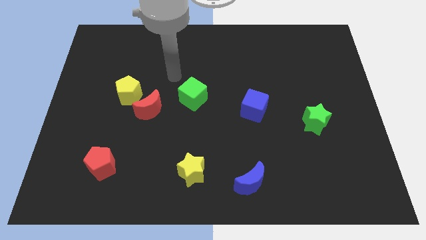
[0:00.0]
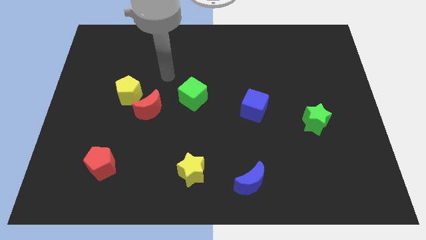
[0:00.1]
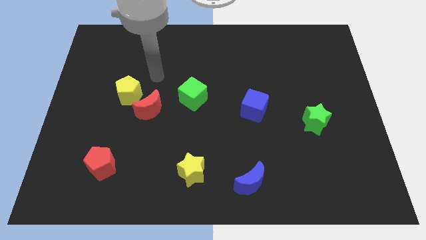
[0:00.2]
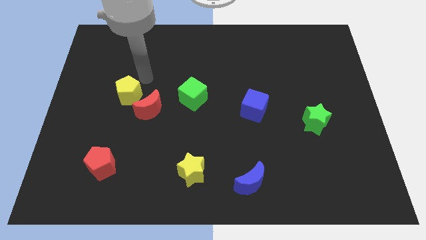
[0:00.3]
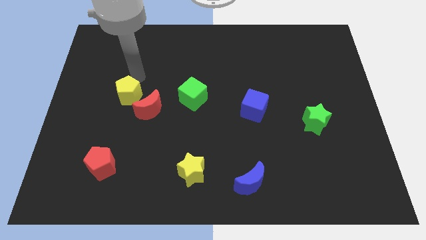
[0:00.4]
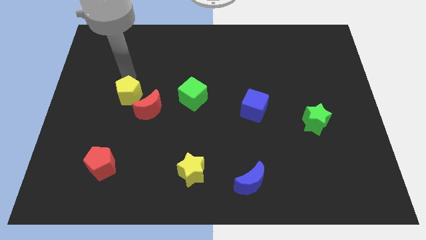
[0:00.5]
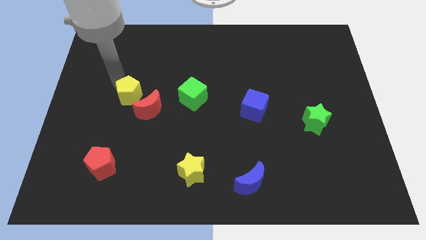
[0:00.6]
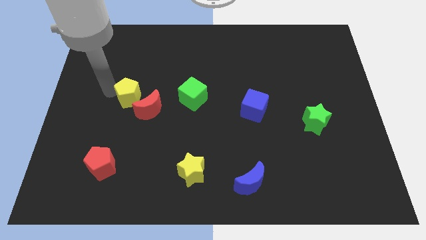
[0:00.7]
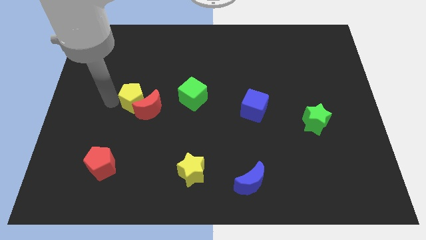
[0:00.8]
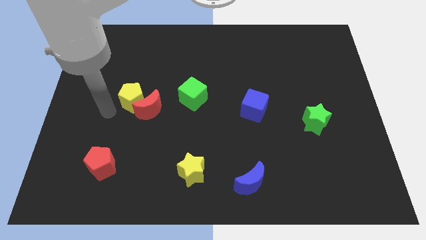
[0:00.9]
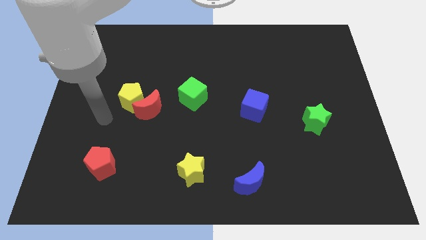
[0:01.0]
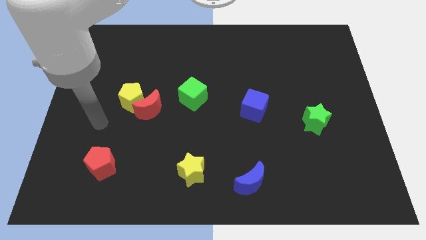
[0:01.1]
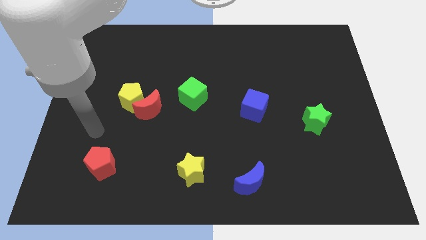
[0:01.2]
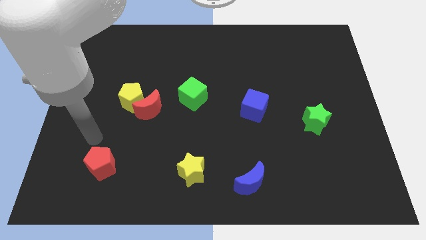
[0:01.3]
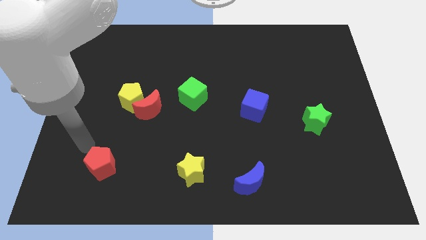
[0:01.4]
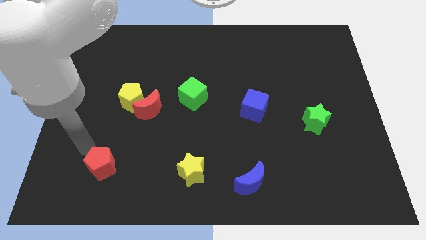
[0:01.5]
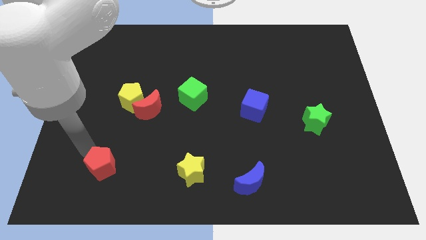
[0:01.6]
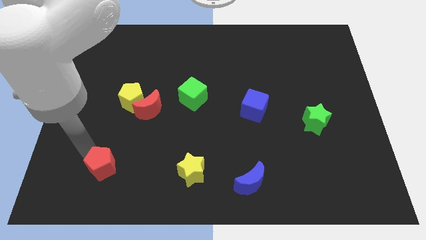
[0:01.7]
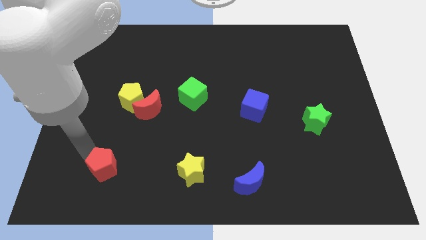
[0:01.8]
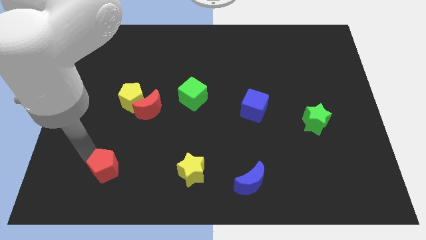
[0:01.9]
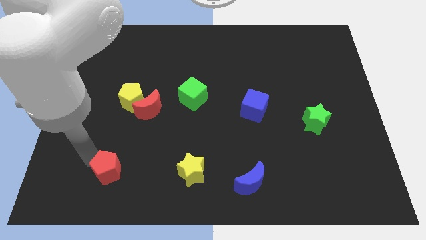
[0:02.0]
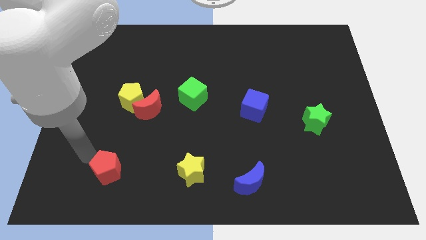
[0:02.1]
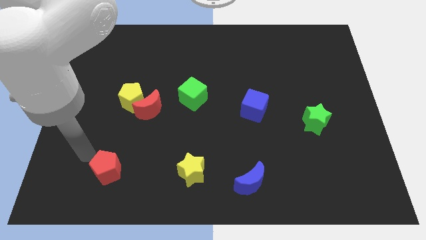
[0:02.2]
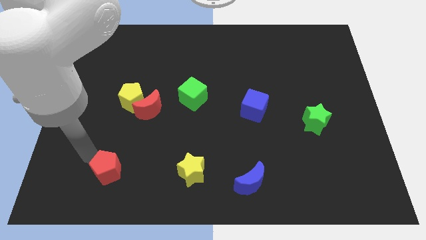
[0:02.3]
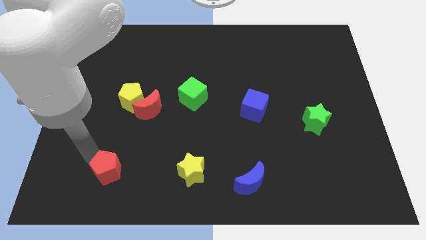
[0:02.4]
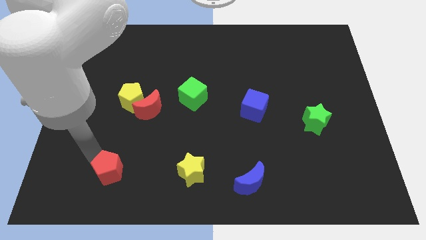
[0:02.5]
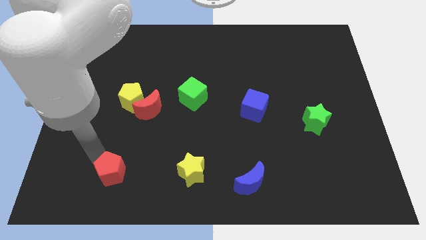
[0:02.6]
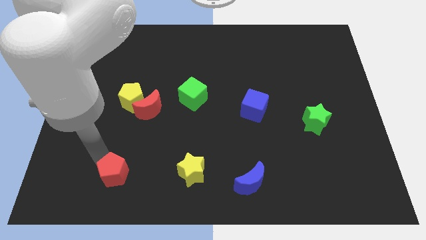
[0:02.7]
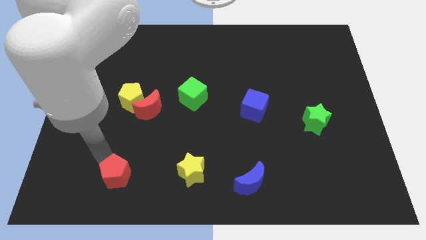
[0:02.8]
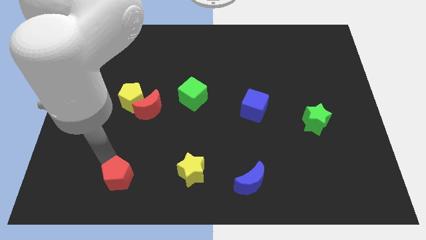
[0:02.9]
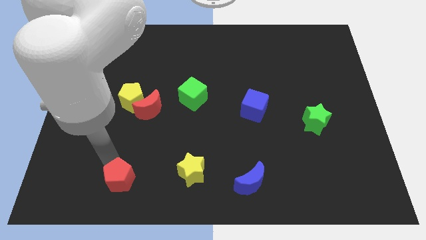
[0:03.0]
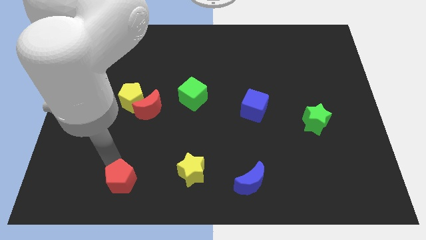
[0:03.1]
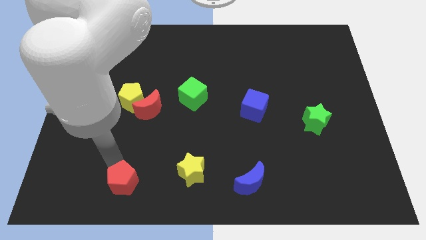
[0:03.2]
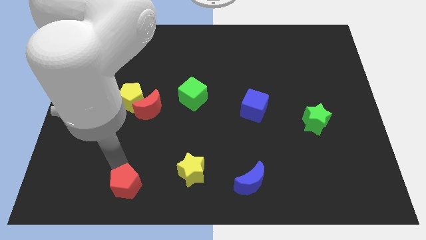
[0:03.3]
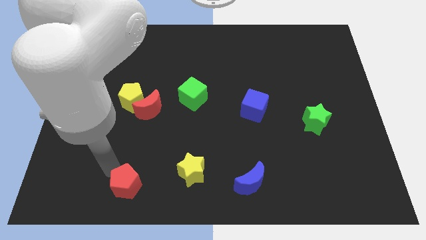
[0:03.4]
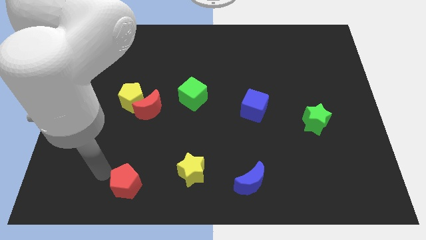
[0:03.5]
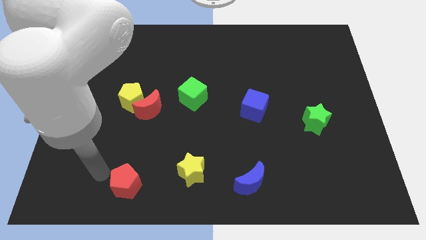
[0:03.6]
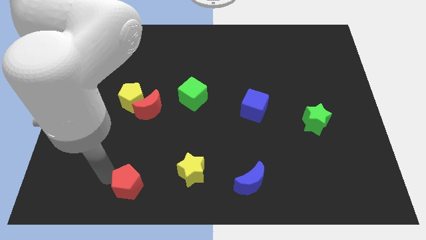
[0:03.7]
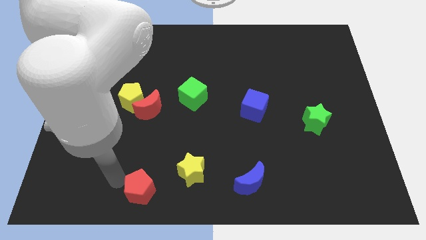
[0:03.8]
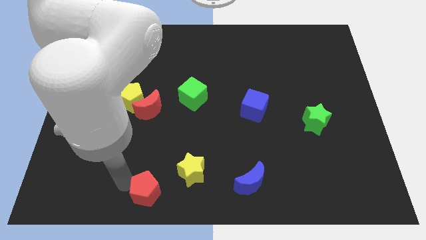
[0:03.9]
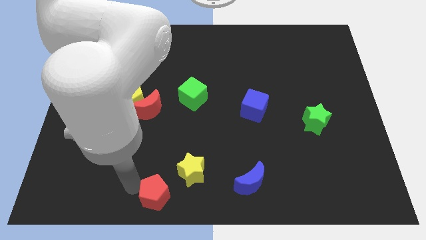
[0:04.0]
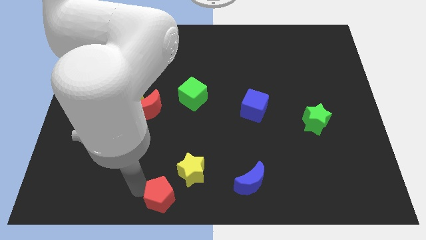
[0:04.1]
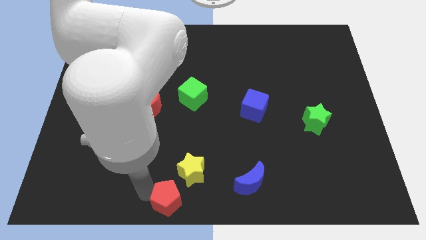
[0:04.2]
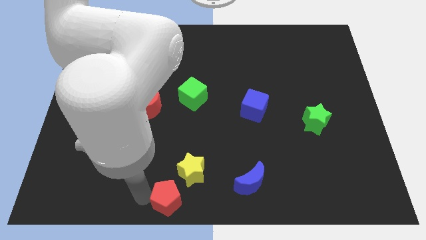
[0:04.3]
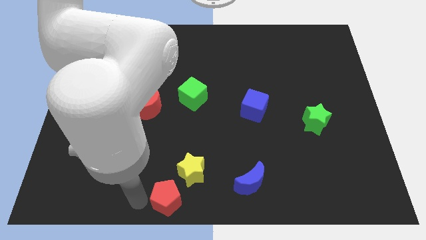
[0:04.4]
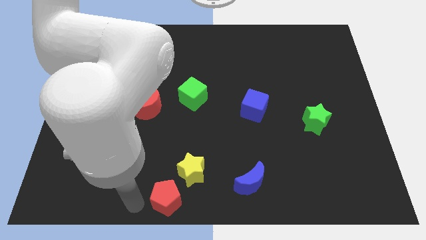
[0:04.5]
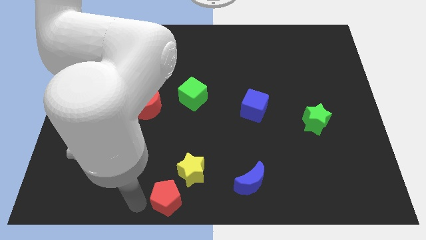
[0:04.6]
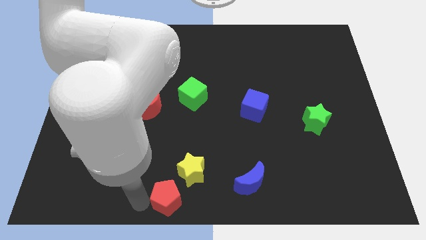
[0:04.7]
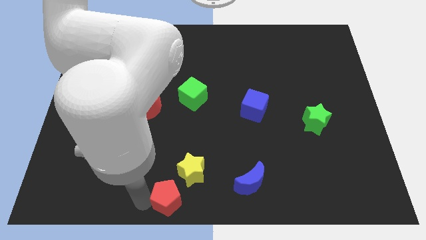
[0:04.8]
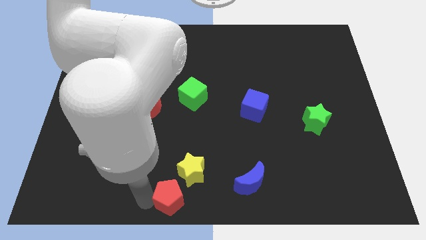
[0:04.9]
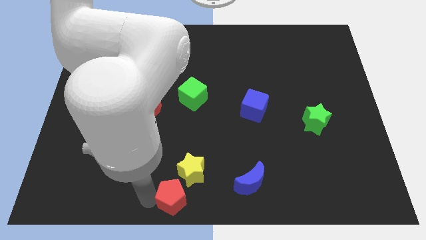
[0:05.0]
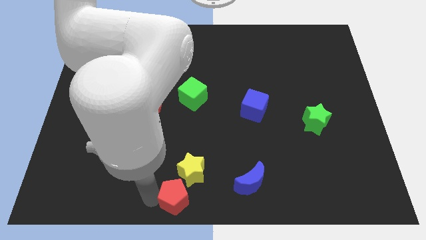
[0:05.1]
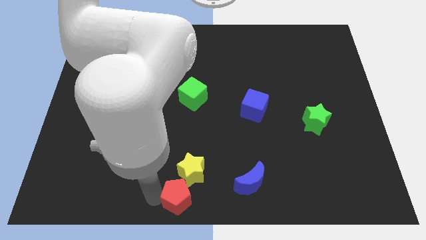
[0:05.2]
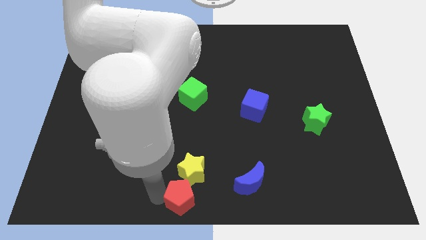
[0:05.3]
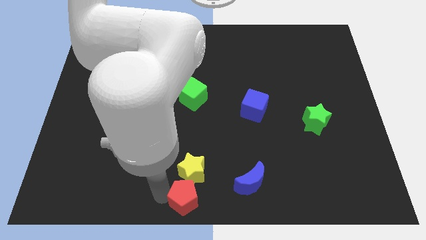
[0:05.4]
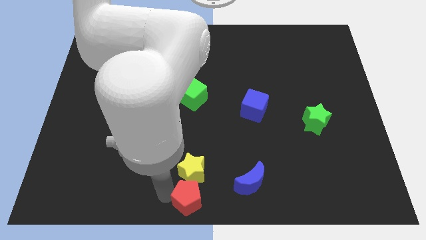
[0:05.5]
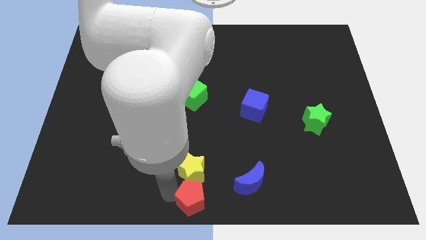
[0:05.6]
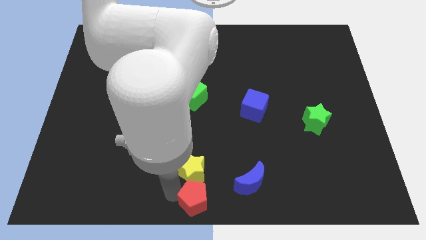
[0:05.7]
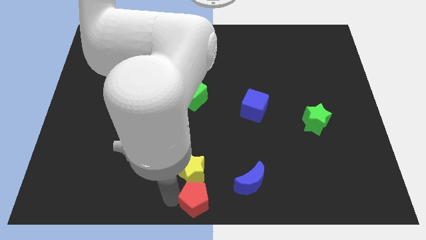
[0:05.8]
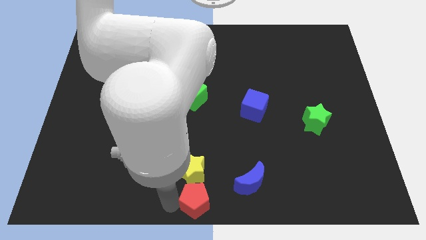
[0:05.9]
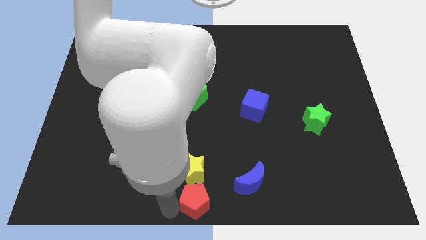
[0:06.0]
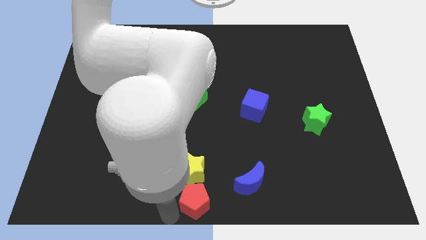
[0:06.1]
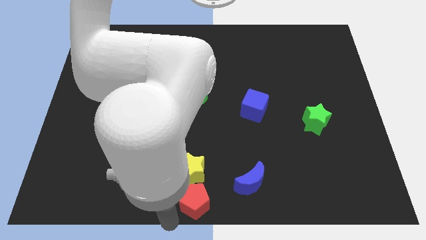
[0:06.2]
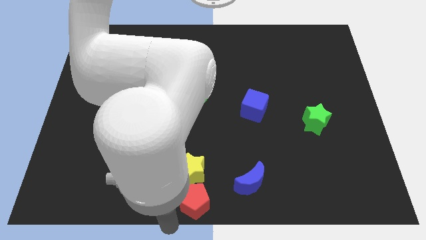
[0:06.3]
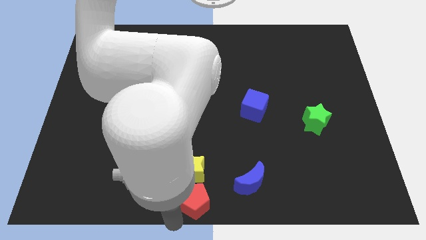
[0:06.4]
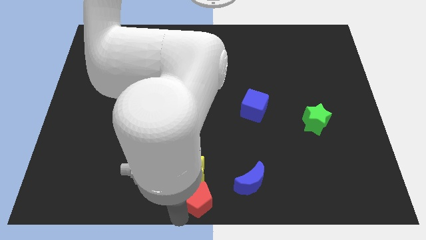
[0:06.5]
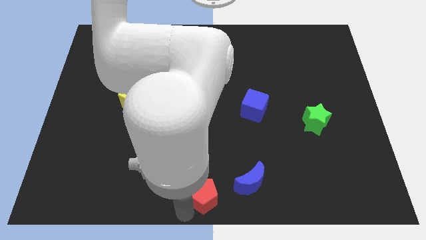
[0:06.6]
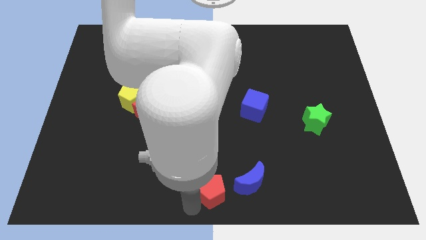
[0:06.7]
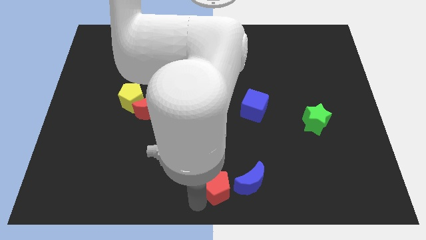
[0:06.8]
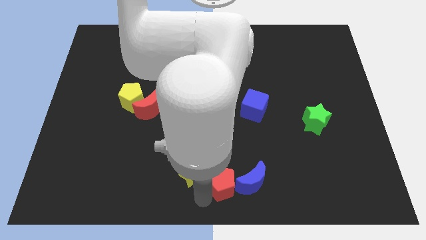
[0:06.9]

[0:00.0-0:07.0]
move the red pentagon next to the blue moon

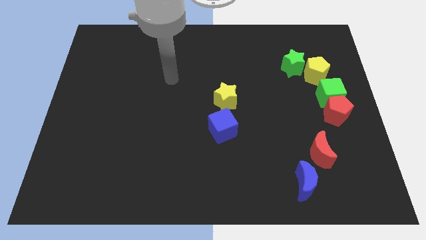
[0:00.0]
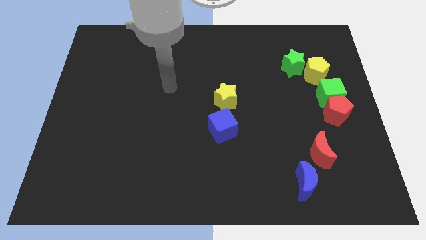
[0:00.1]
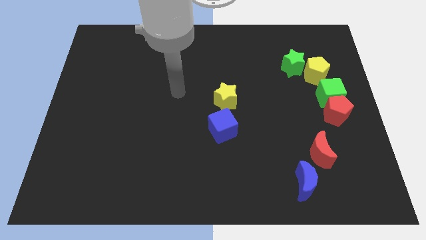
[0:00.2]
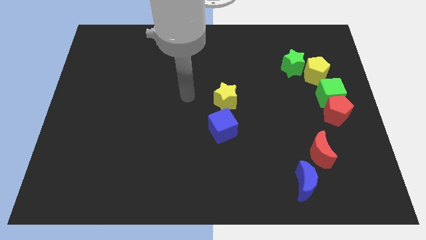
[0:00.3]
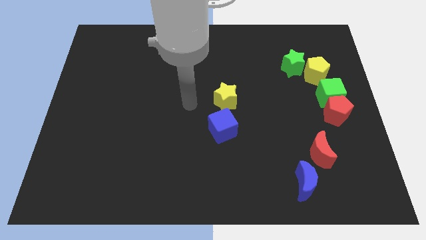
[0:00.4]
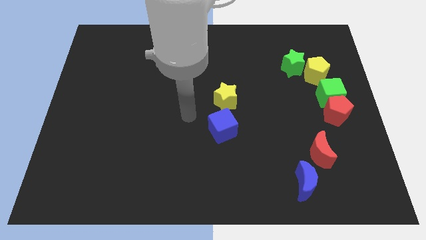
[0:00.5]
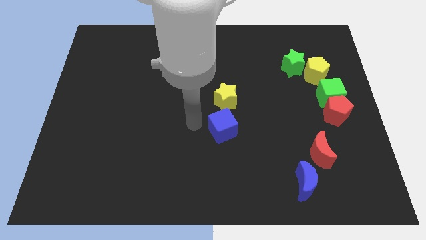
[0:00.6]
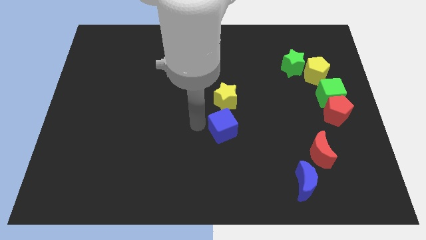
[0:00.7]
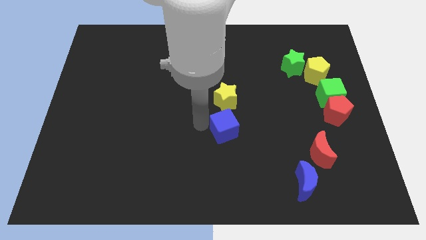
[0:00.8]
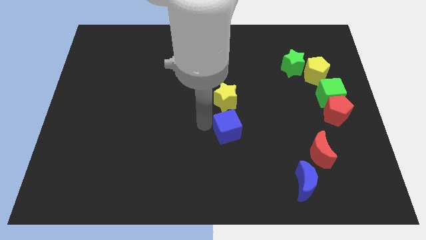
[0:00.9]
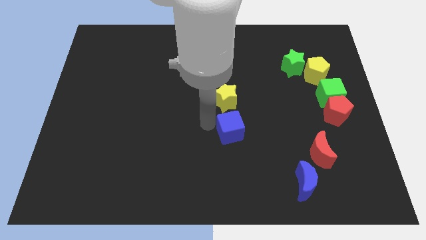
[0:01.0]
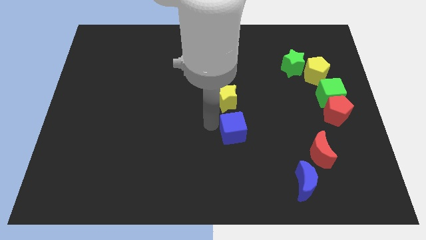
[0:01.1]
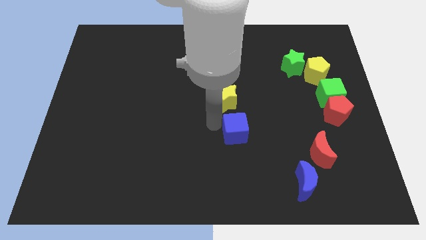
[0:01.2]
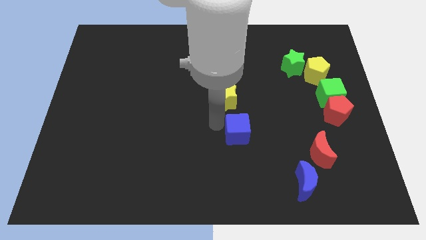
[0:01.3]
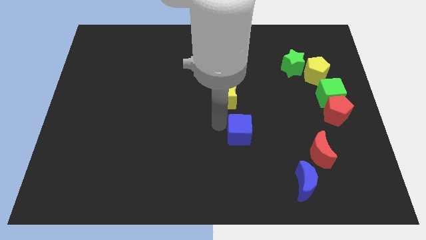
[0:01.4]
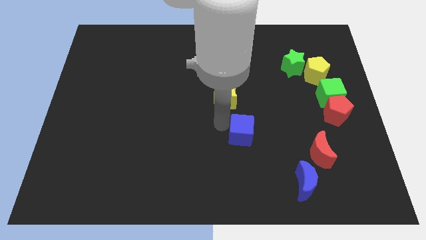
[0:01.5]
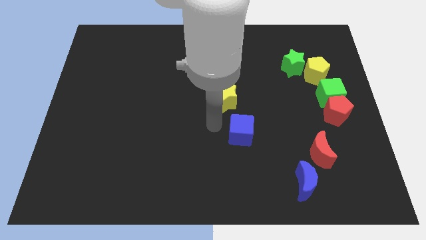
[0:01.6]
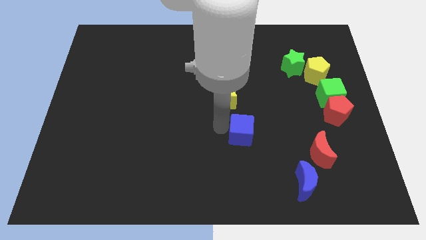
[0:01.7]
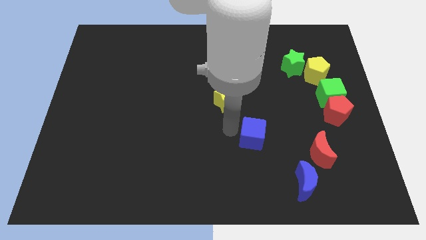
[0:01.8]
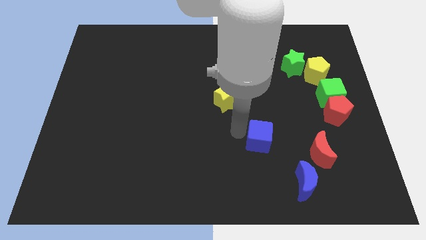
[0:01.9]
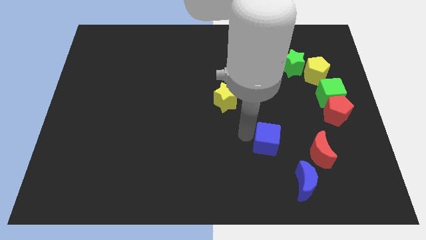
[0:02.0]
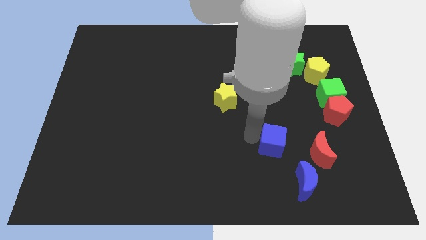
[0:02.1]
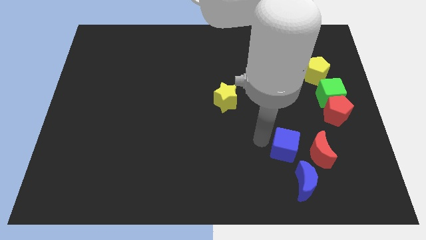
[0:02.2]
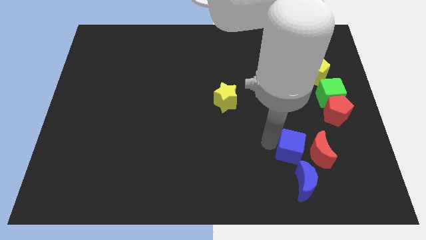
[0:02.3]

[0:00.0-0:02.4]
put the blue cube close to the red moon
